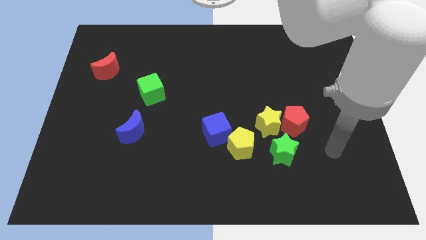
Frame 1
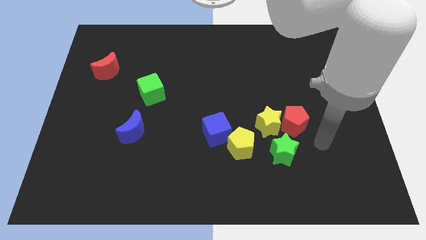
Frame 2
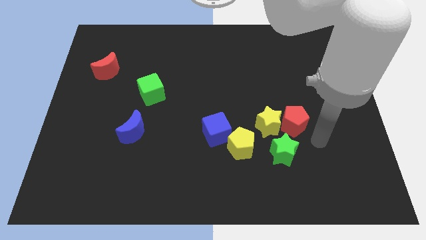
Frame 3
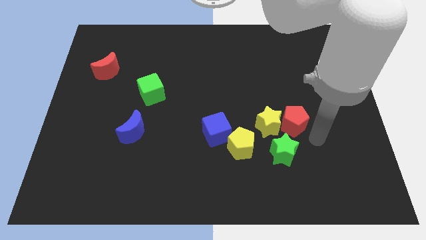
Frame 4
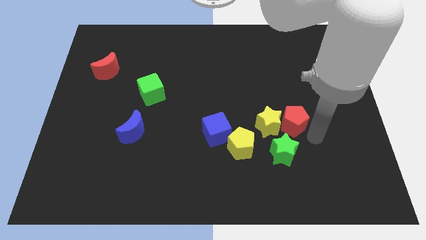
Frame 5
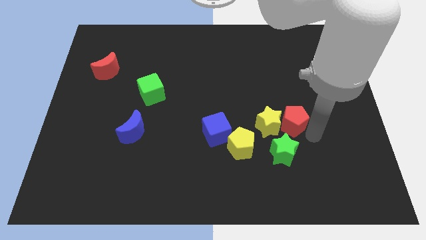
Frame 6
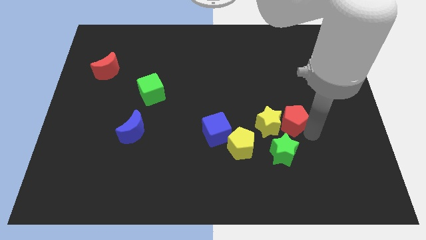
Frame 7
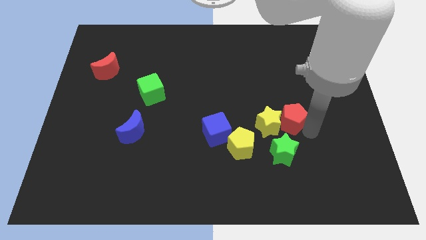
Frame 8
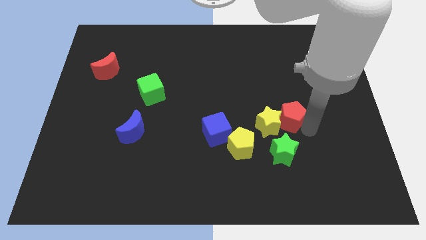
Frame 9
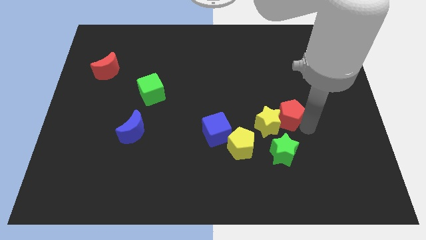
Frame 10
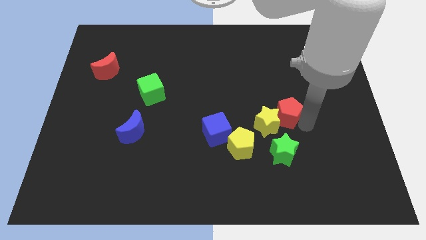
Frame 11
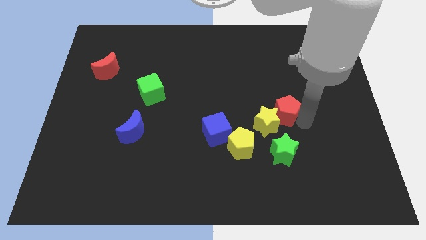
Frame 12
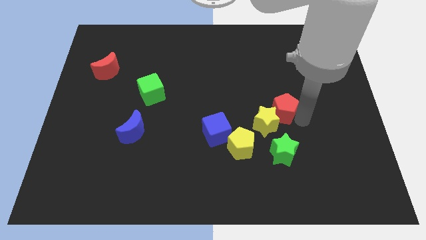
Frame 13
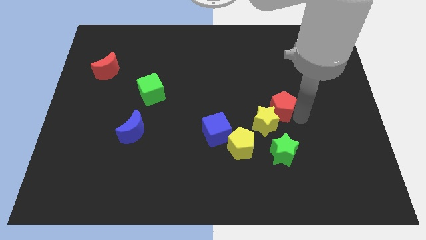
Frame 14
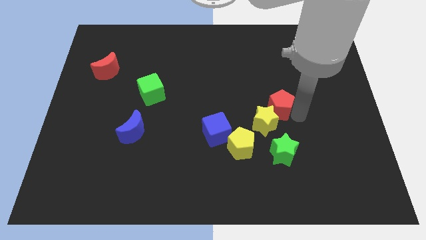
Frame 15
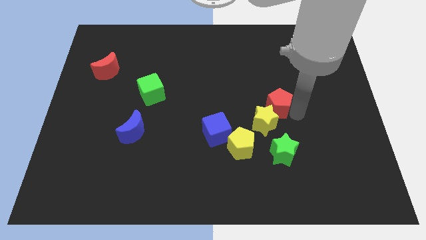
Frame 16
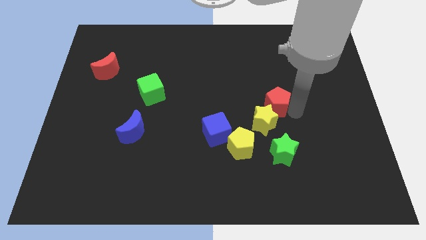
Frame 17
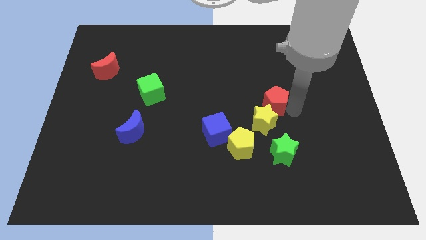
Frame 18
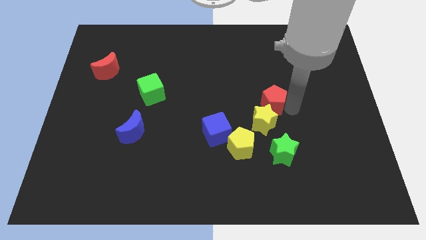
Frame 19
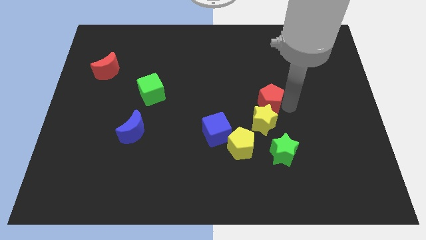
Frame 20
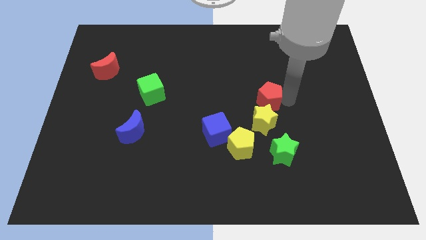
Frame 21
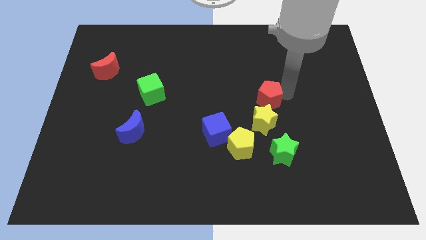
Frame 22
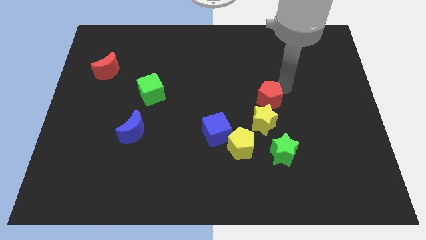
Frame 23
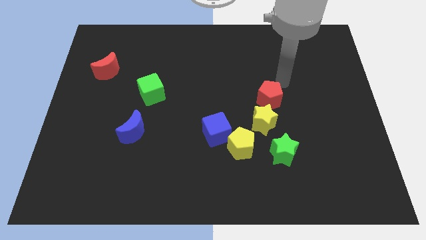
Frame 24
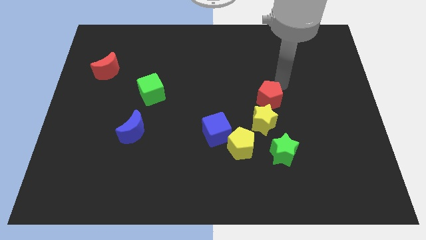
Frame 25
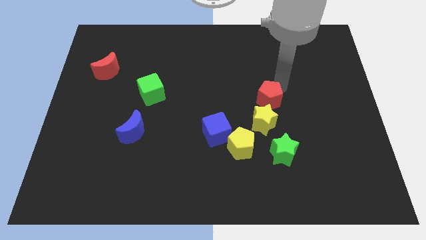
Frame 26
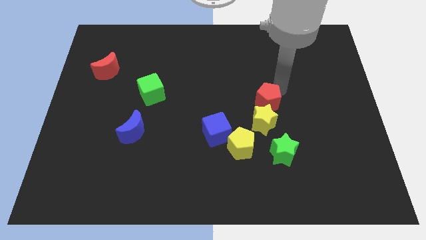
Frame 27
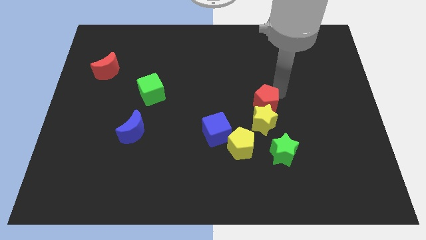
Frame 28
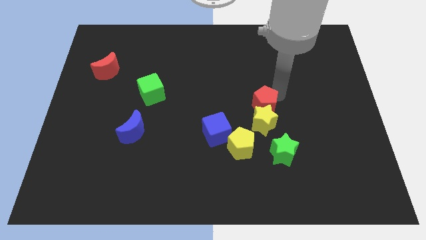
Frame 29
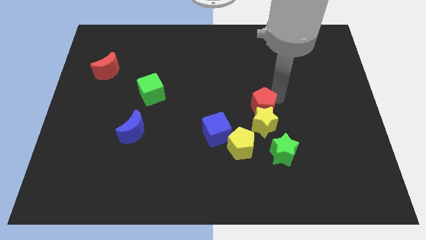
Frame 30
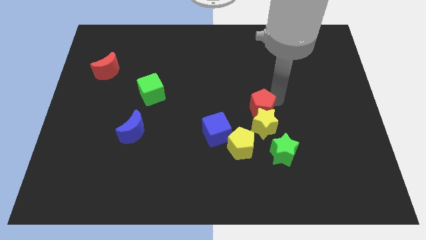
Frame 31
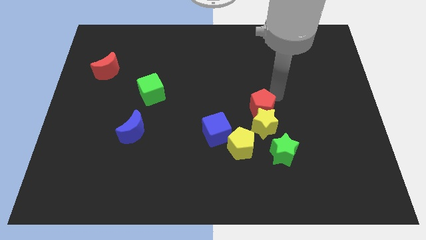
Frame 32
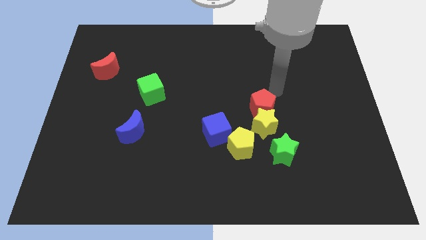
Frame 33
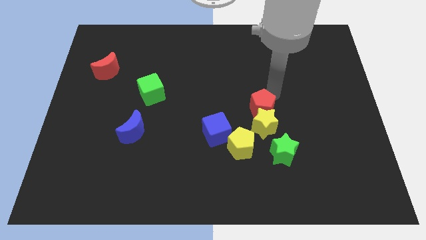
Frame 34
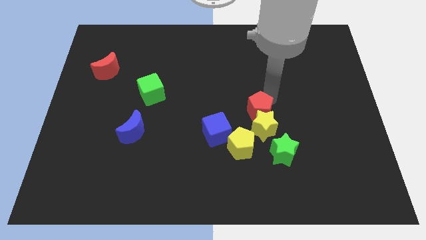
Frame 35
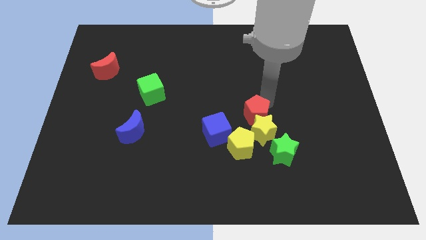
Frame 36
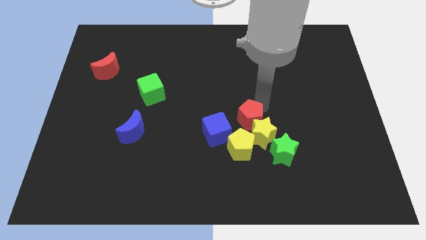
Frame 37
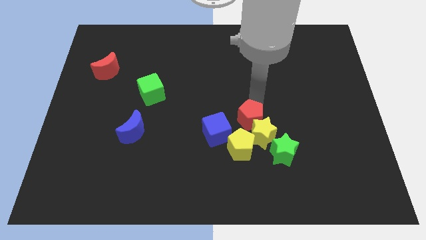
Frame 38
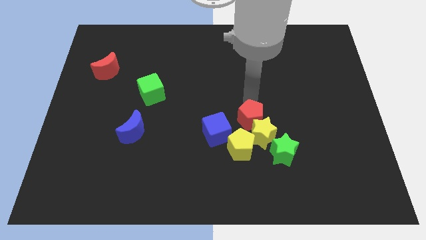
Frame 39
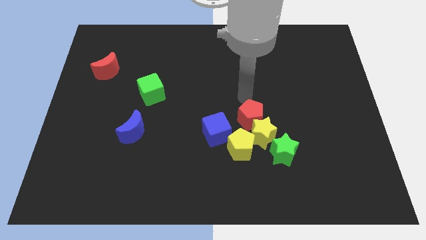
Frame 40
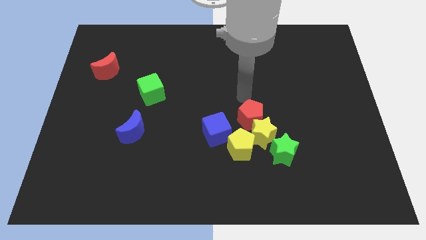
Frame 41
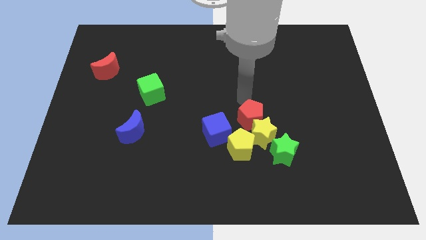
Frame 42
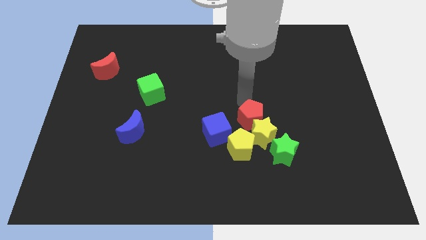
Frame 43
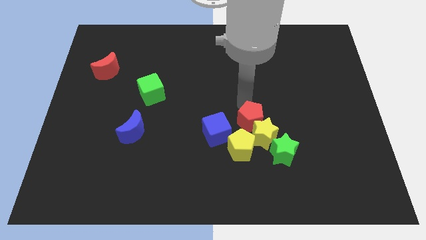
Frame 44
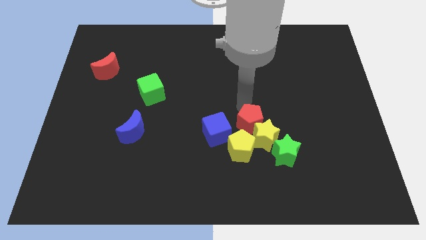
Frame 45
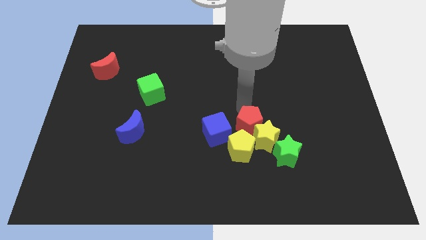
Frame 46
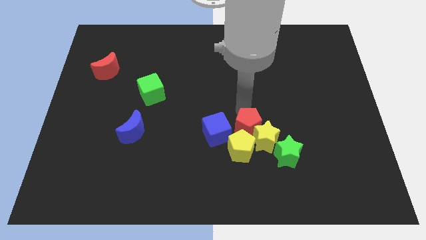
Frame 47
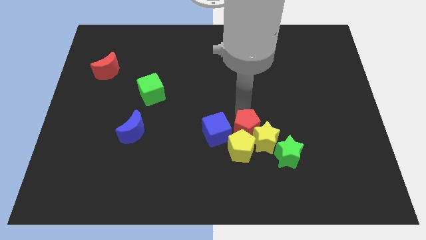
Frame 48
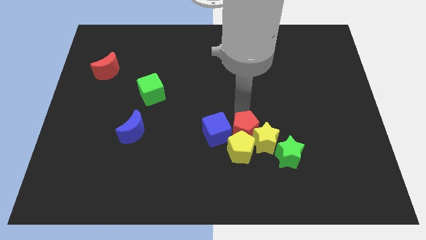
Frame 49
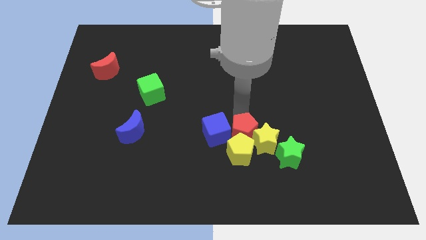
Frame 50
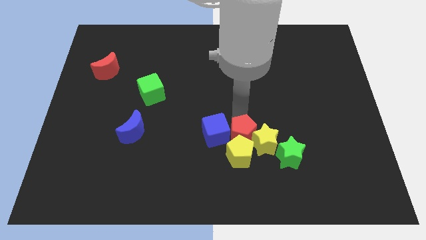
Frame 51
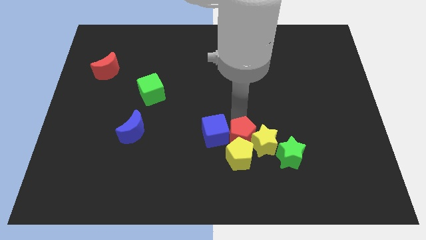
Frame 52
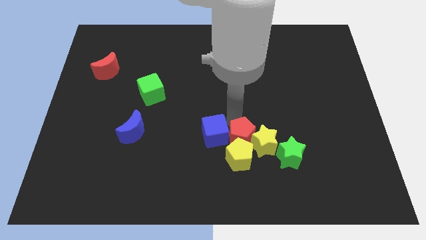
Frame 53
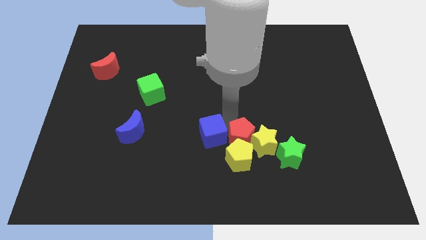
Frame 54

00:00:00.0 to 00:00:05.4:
move the red pentagon just left of the green star
